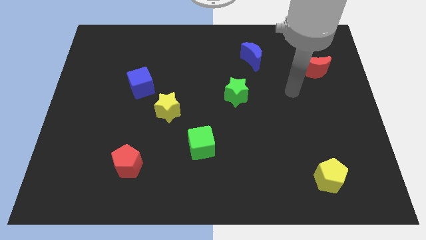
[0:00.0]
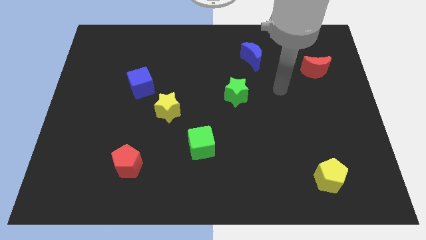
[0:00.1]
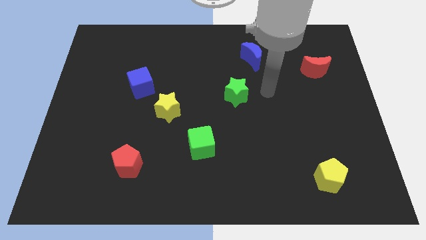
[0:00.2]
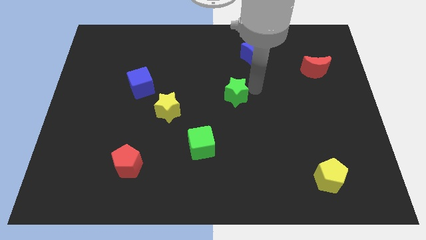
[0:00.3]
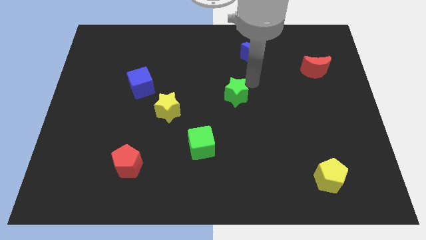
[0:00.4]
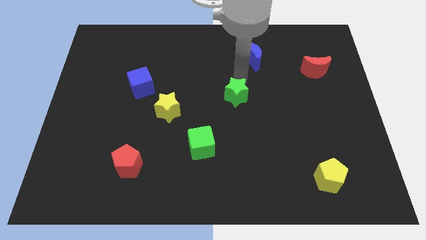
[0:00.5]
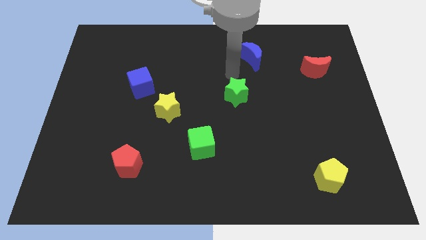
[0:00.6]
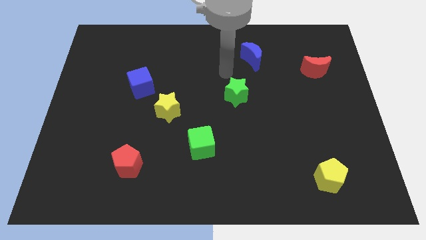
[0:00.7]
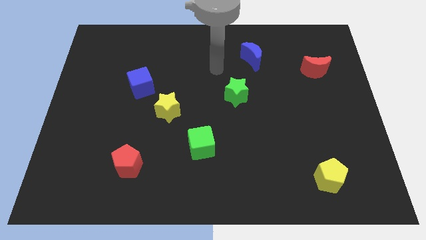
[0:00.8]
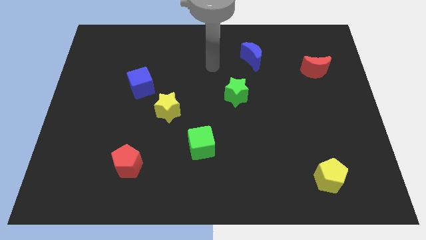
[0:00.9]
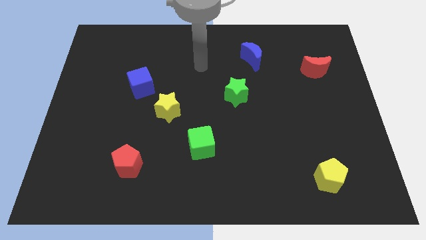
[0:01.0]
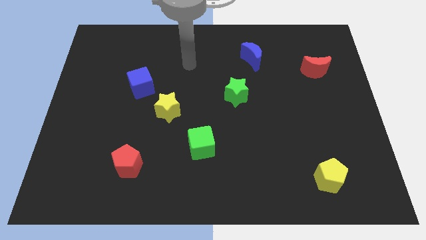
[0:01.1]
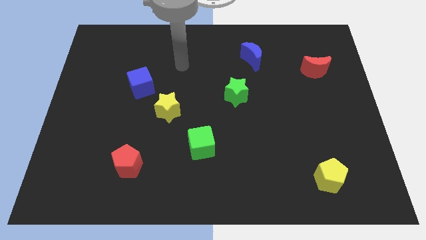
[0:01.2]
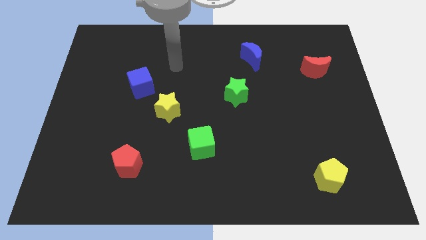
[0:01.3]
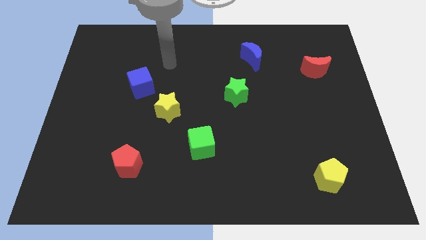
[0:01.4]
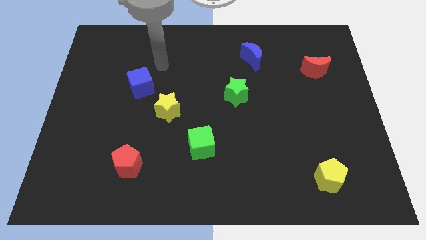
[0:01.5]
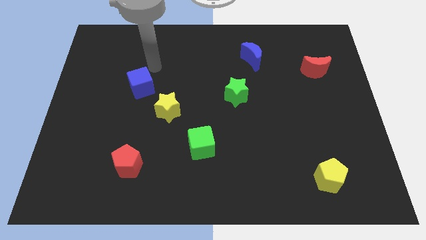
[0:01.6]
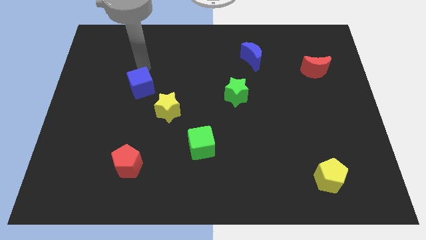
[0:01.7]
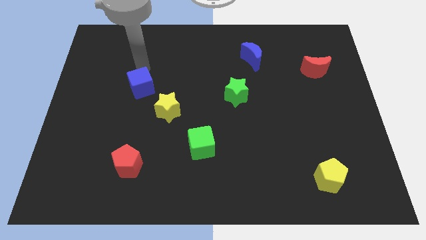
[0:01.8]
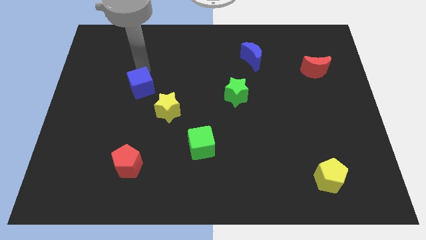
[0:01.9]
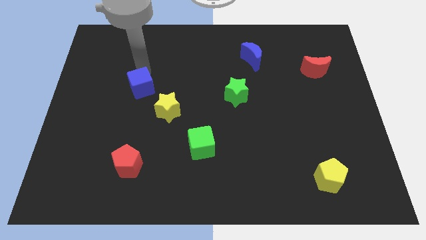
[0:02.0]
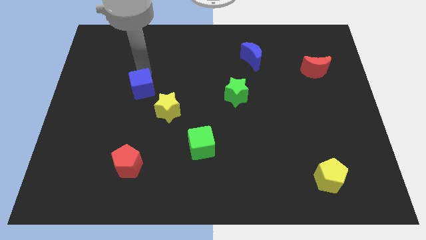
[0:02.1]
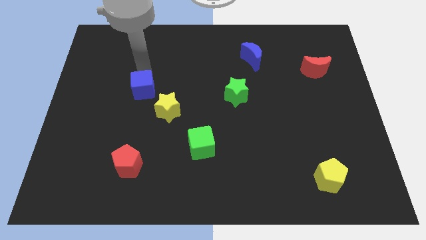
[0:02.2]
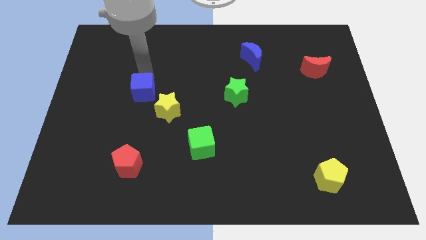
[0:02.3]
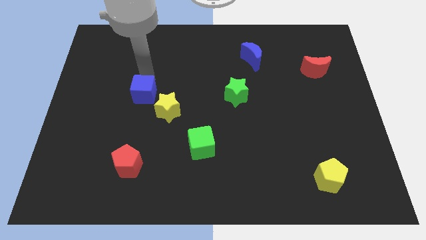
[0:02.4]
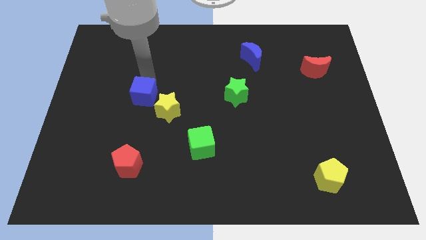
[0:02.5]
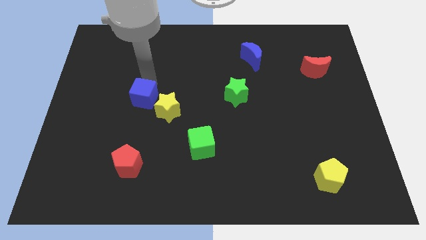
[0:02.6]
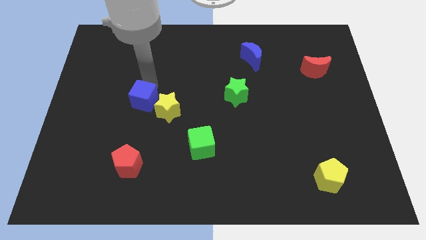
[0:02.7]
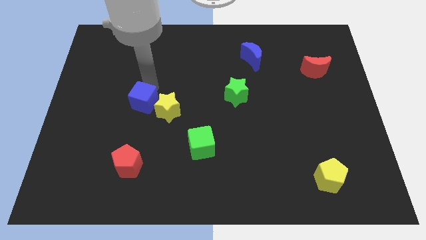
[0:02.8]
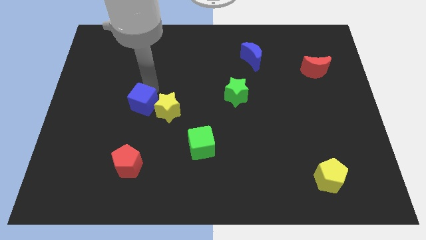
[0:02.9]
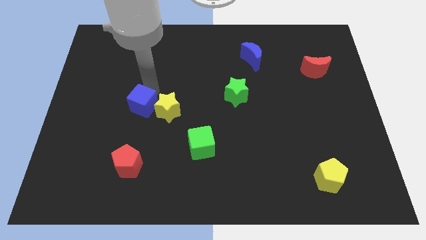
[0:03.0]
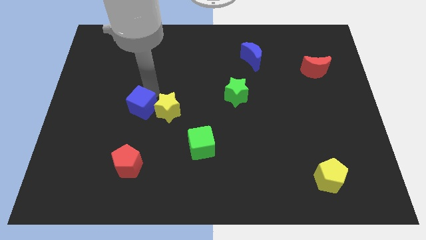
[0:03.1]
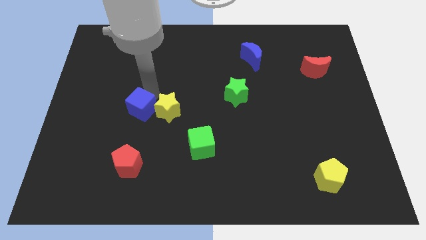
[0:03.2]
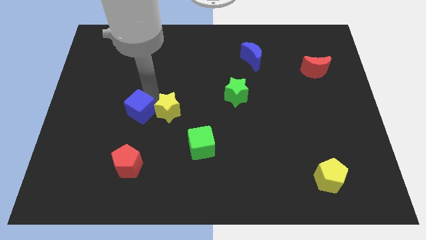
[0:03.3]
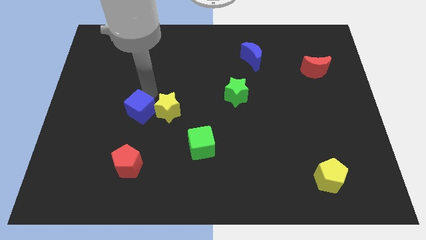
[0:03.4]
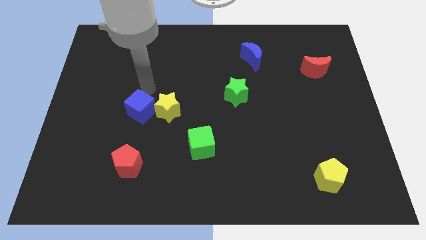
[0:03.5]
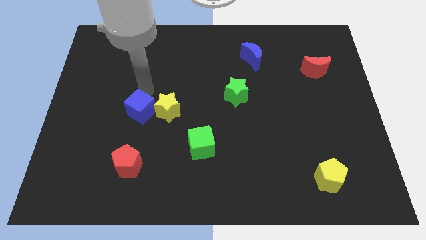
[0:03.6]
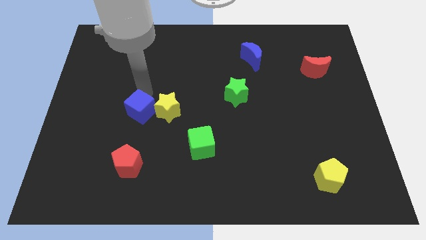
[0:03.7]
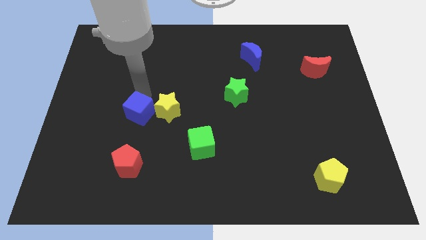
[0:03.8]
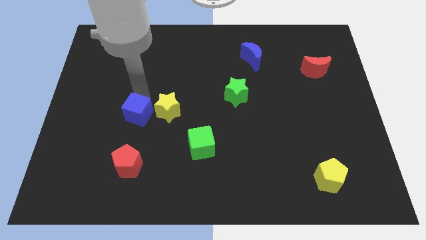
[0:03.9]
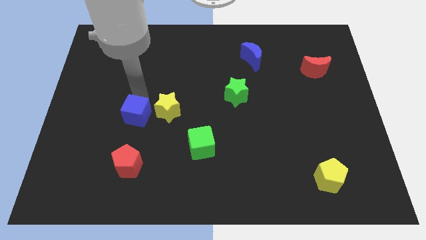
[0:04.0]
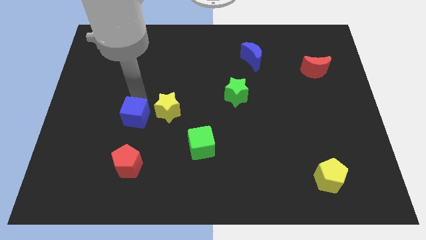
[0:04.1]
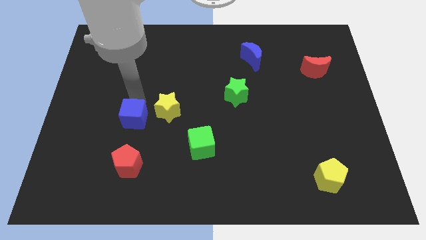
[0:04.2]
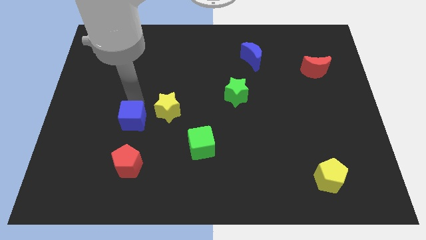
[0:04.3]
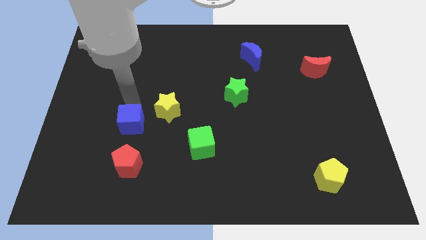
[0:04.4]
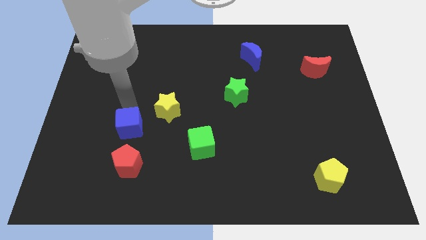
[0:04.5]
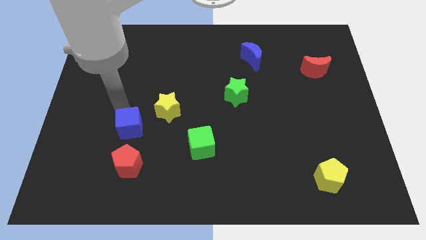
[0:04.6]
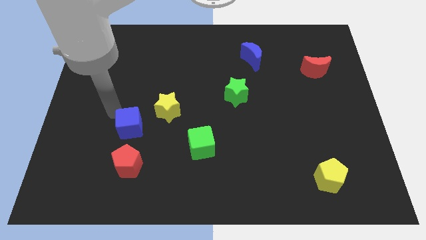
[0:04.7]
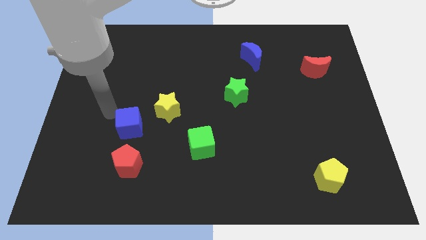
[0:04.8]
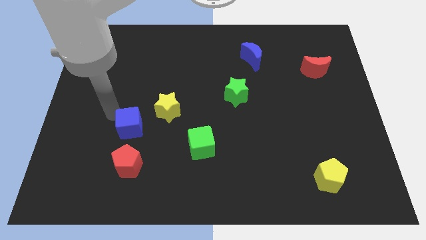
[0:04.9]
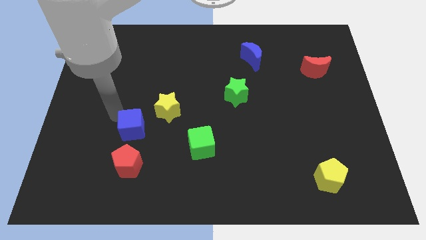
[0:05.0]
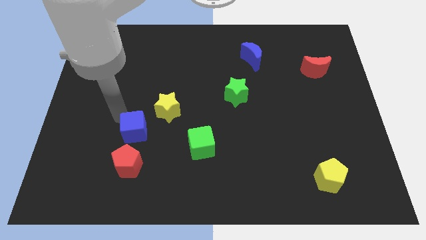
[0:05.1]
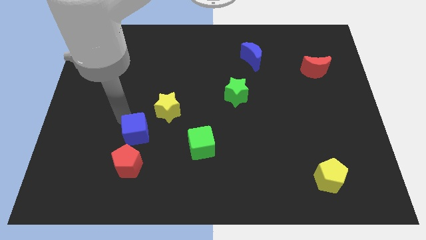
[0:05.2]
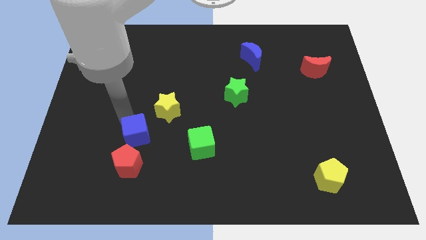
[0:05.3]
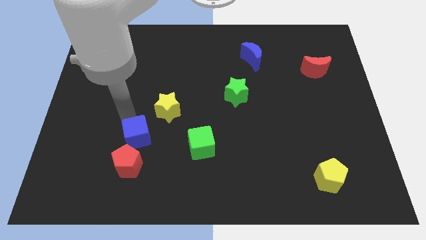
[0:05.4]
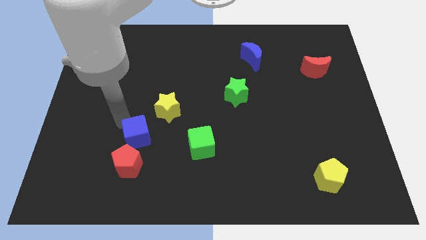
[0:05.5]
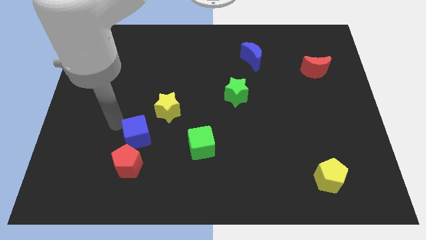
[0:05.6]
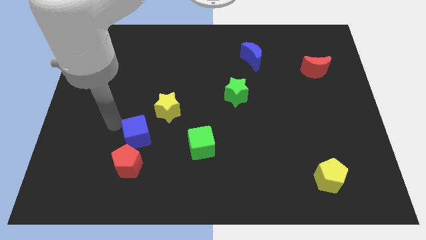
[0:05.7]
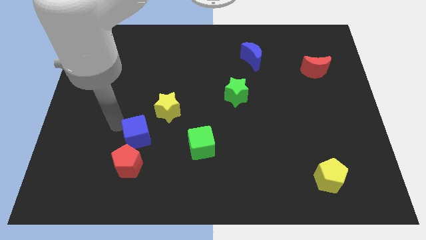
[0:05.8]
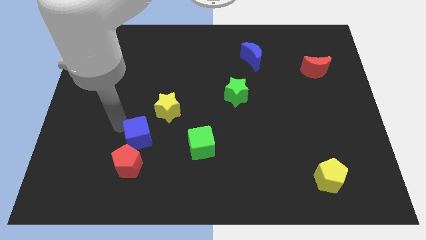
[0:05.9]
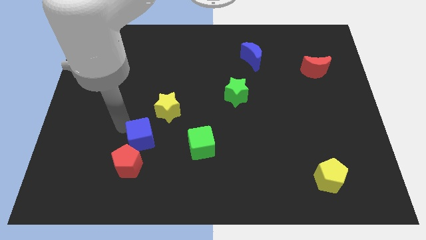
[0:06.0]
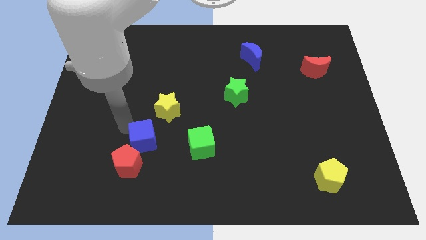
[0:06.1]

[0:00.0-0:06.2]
move the blue cube below the yellow star
